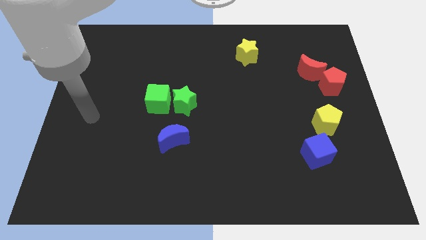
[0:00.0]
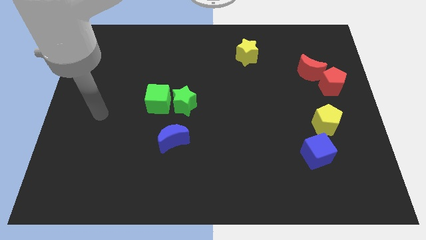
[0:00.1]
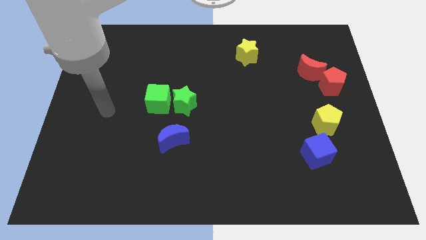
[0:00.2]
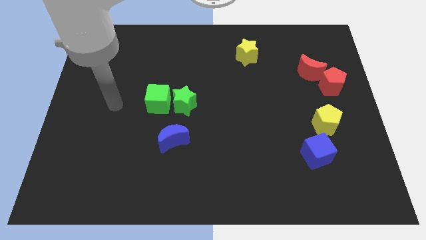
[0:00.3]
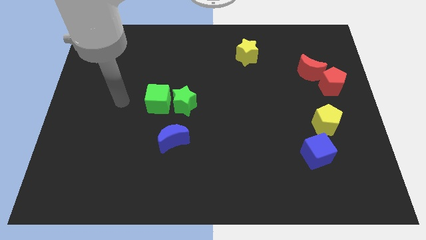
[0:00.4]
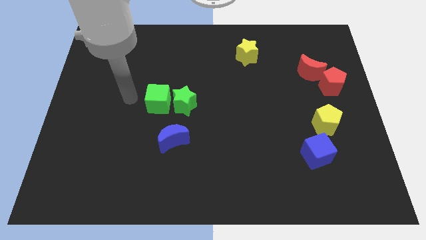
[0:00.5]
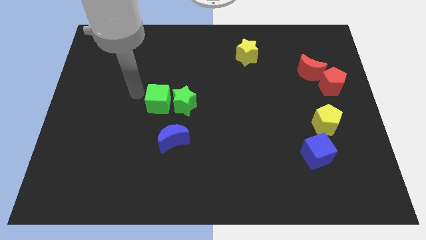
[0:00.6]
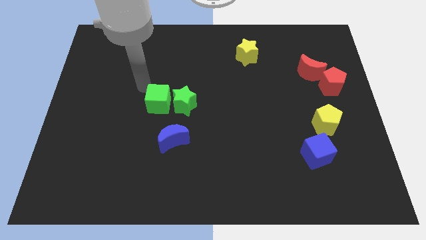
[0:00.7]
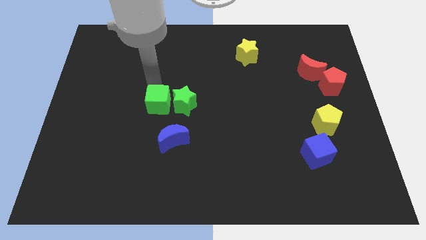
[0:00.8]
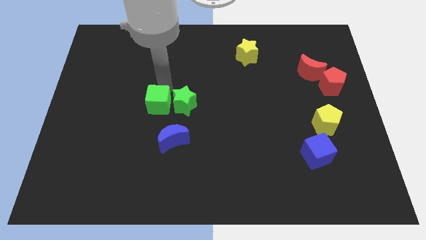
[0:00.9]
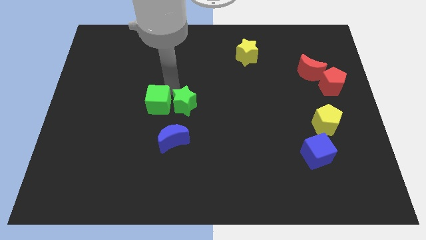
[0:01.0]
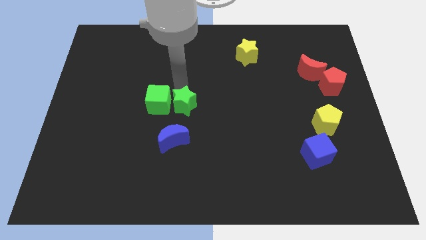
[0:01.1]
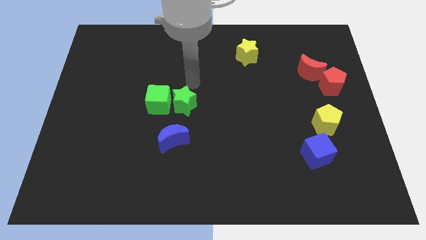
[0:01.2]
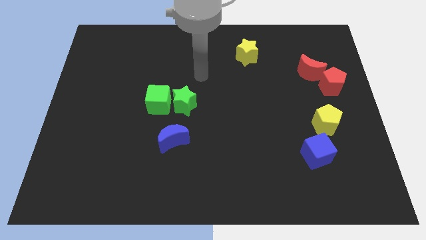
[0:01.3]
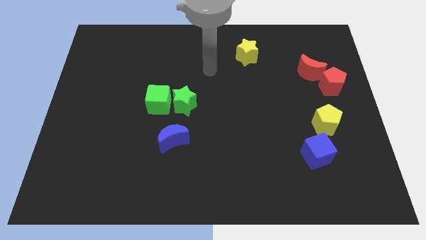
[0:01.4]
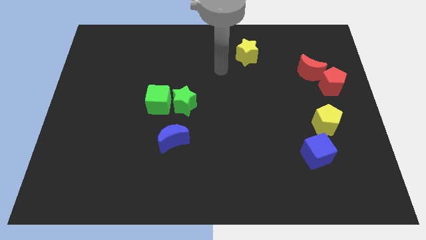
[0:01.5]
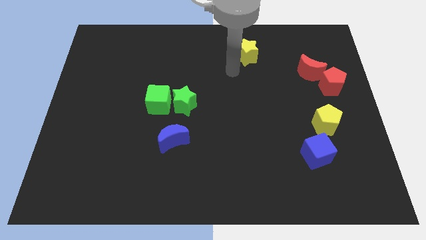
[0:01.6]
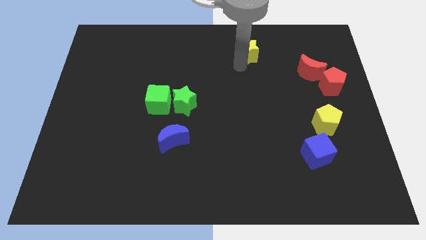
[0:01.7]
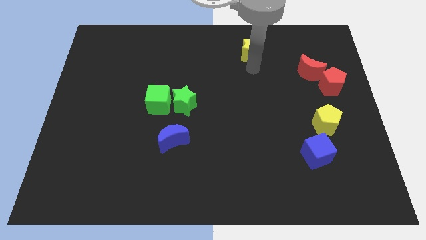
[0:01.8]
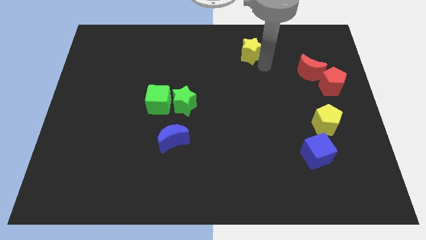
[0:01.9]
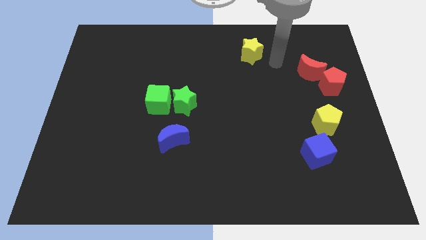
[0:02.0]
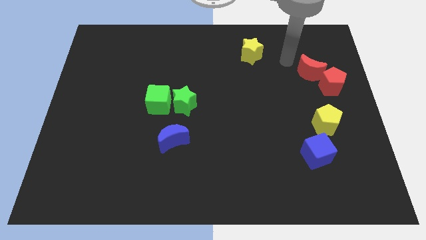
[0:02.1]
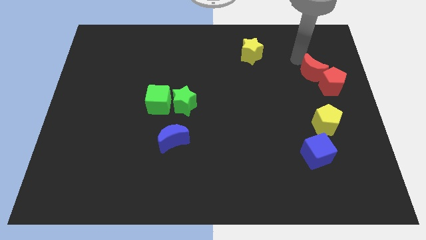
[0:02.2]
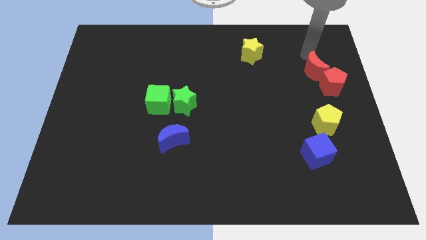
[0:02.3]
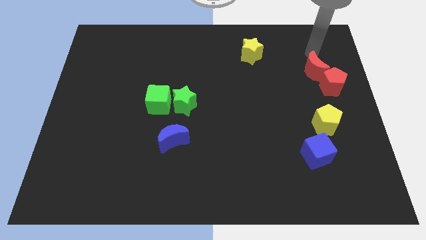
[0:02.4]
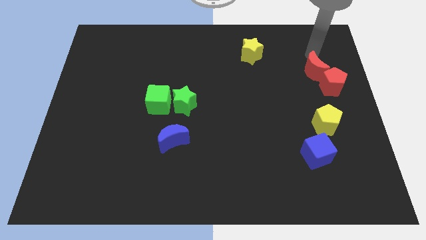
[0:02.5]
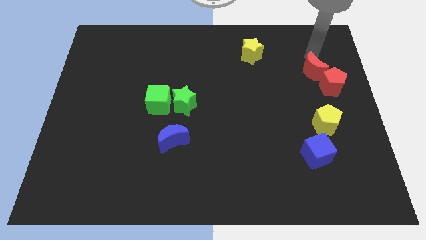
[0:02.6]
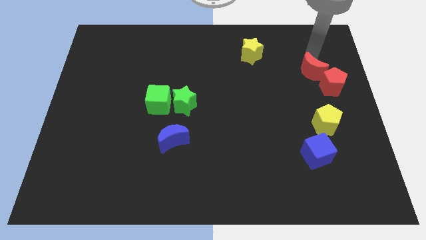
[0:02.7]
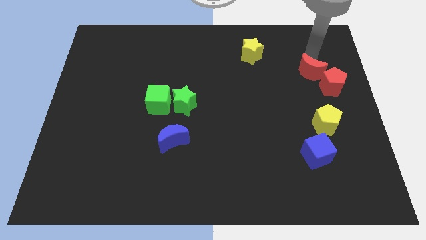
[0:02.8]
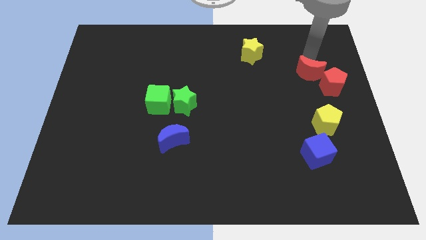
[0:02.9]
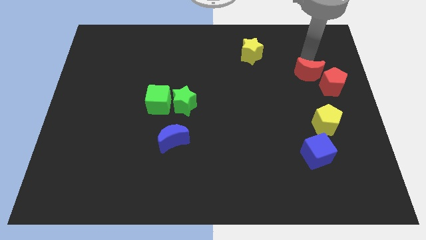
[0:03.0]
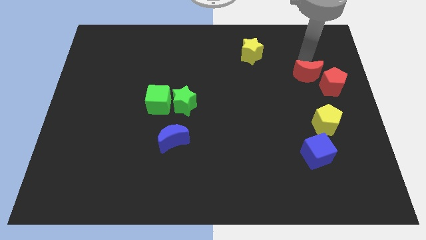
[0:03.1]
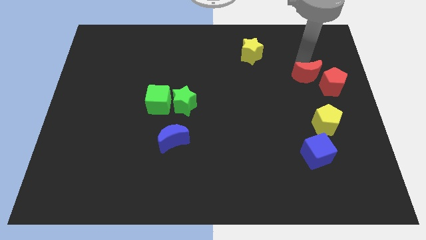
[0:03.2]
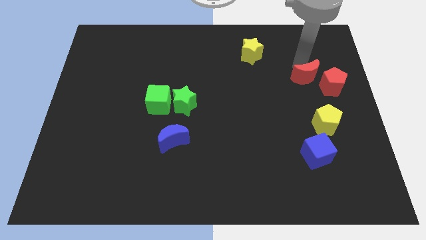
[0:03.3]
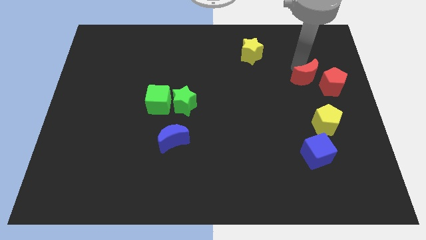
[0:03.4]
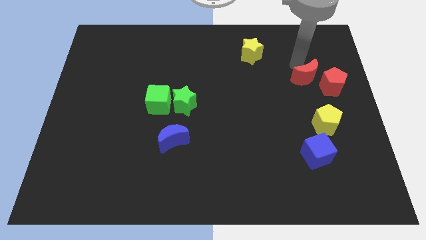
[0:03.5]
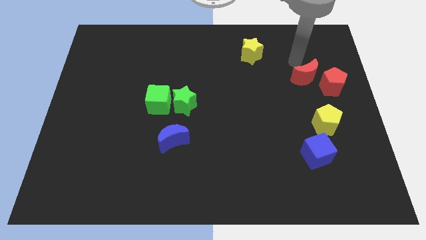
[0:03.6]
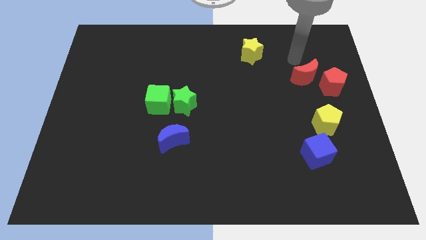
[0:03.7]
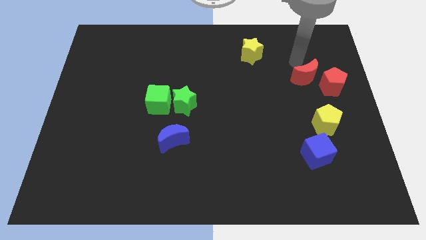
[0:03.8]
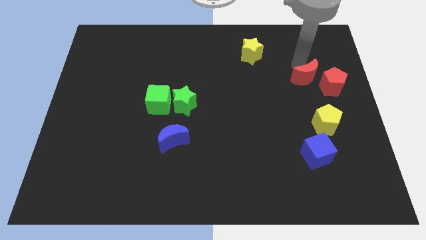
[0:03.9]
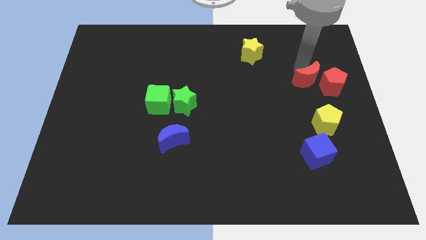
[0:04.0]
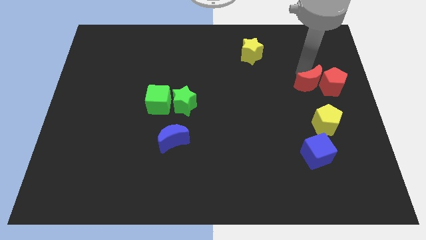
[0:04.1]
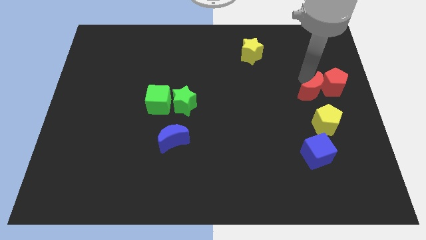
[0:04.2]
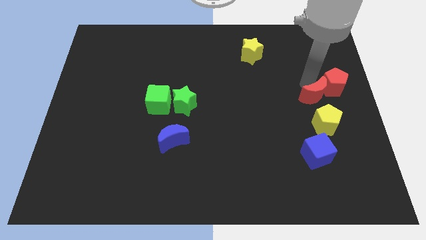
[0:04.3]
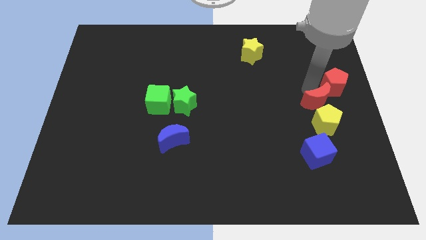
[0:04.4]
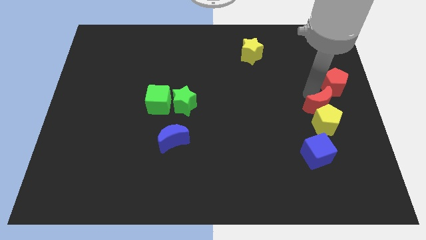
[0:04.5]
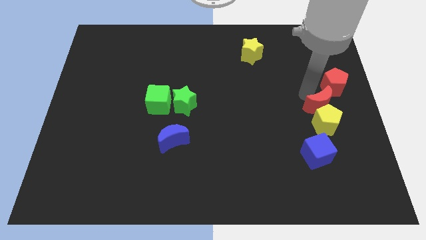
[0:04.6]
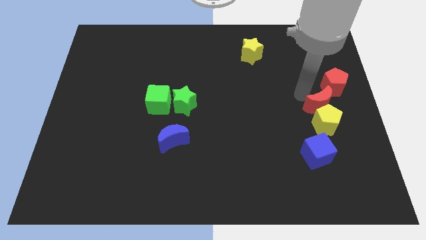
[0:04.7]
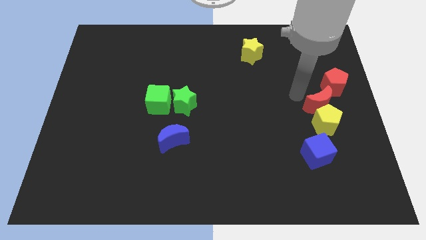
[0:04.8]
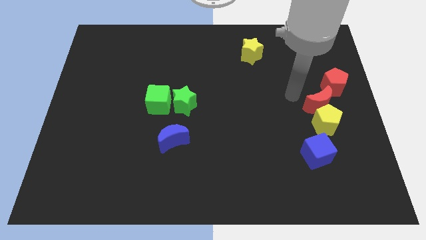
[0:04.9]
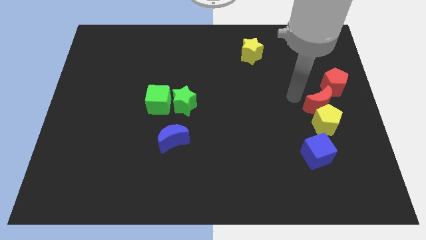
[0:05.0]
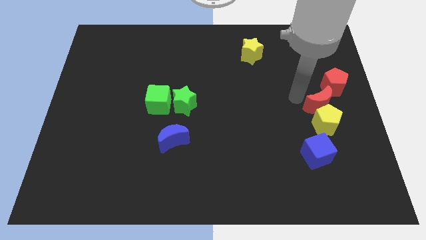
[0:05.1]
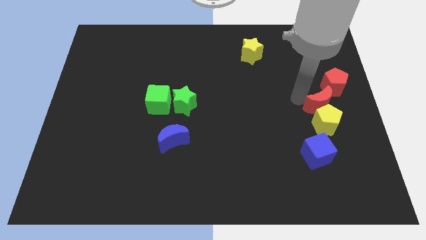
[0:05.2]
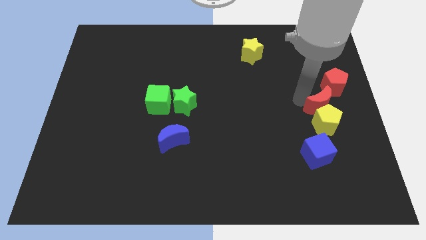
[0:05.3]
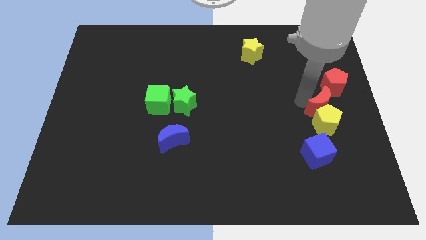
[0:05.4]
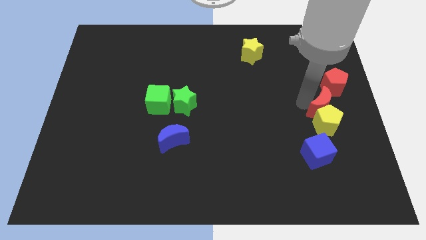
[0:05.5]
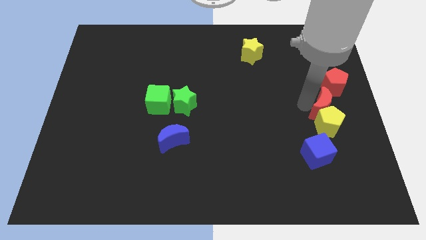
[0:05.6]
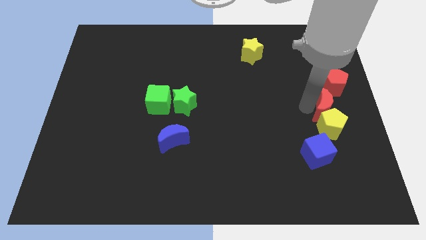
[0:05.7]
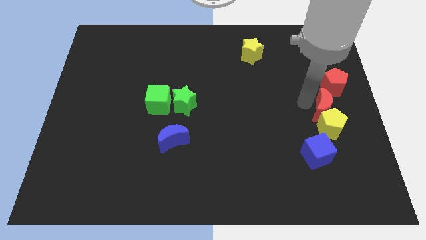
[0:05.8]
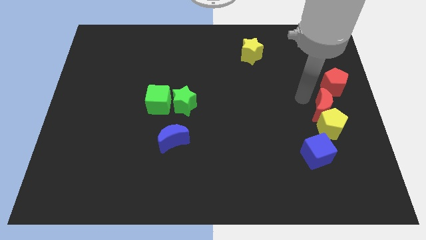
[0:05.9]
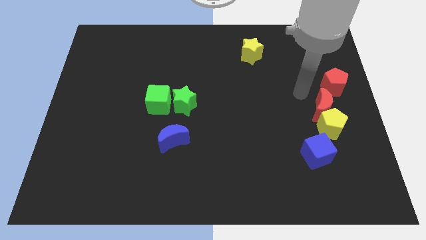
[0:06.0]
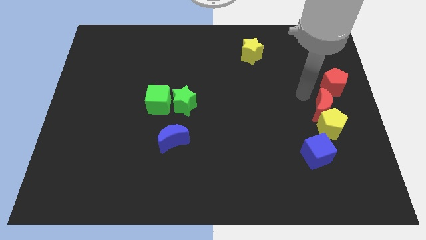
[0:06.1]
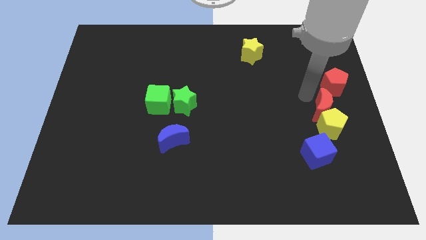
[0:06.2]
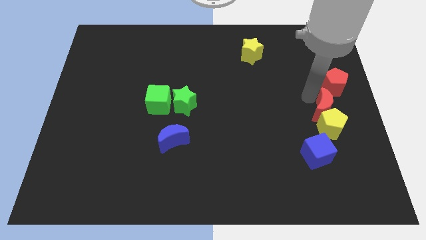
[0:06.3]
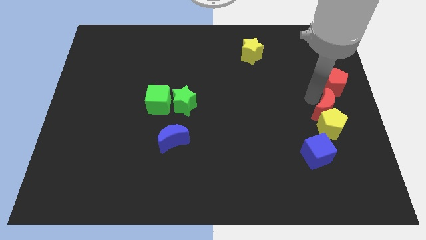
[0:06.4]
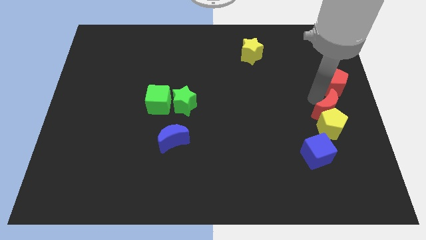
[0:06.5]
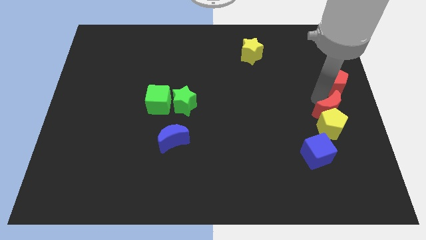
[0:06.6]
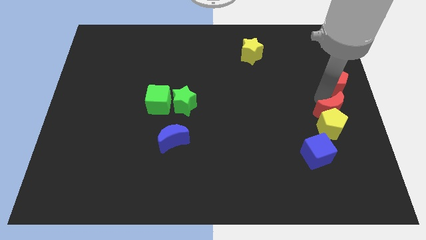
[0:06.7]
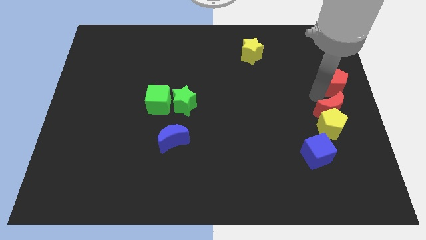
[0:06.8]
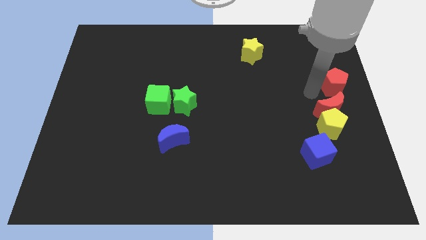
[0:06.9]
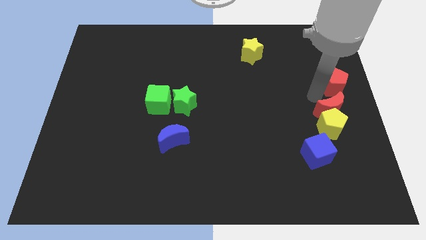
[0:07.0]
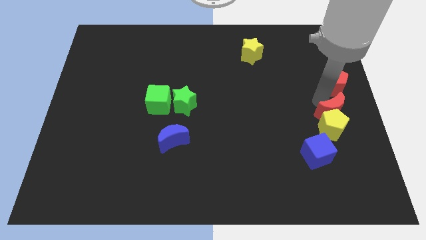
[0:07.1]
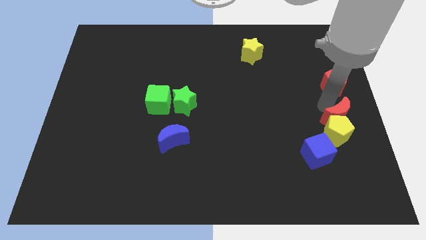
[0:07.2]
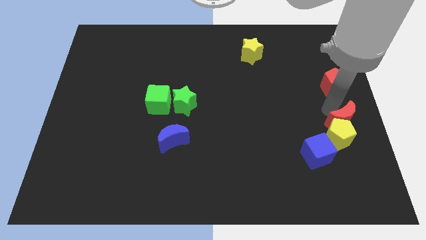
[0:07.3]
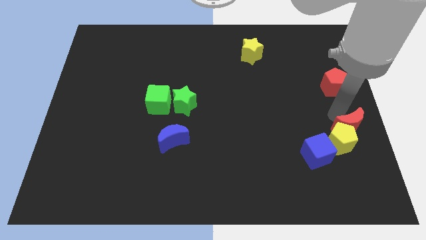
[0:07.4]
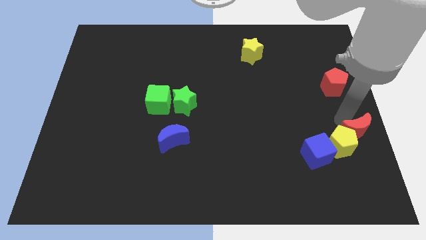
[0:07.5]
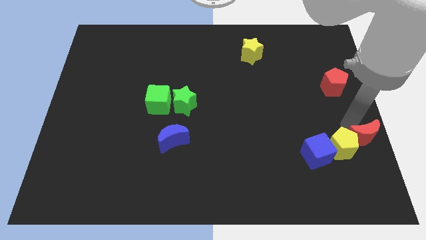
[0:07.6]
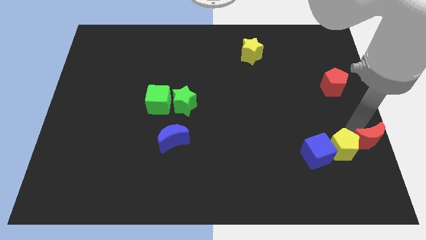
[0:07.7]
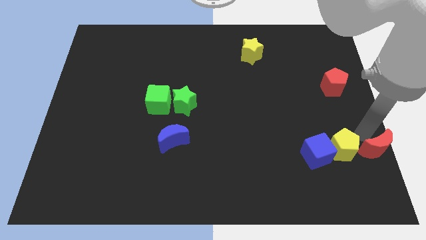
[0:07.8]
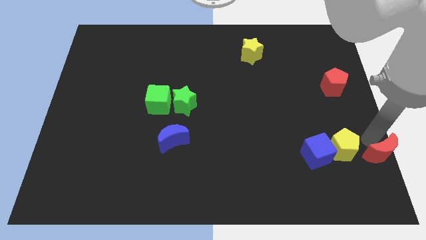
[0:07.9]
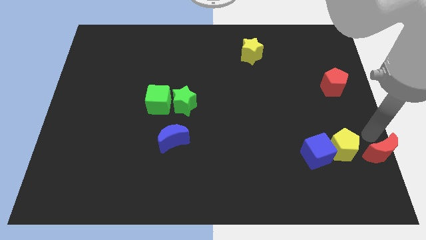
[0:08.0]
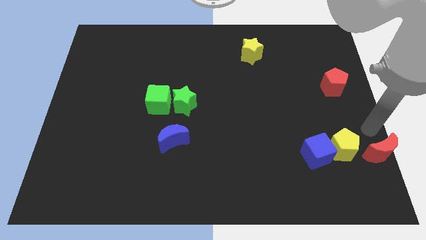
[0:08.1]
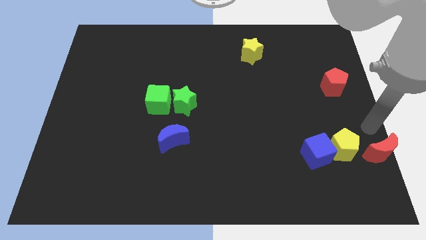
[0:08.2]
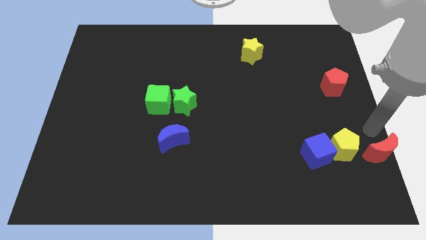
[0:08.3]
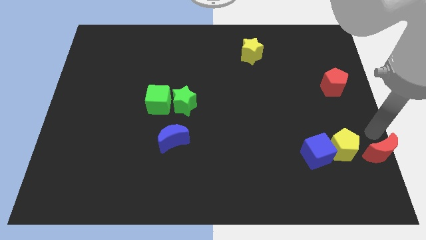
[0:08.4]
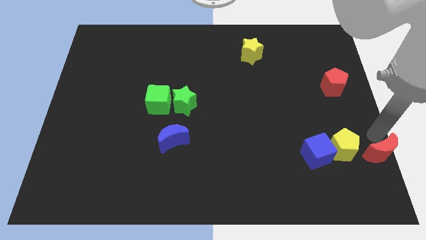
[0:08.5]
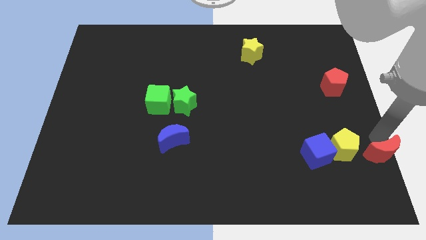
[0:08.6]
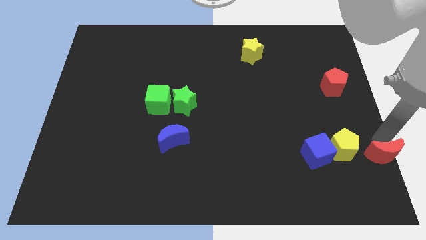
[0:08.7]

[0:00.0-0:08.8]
put the red moon to the bottom right
